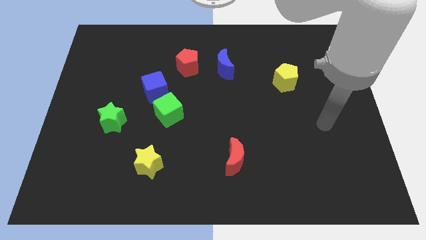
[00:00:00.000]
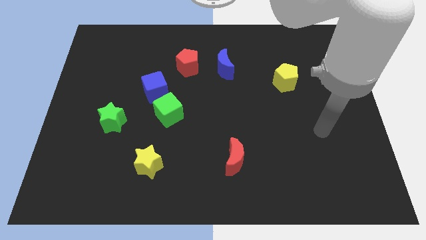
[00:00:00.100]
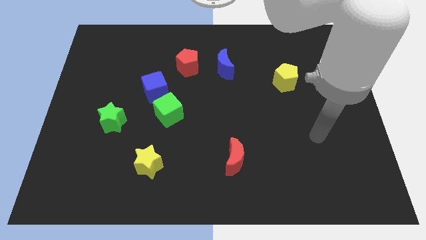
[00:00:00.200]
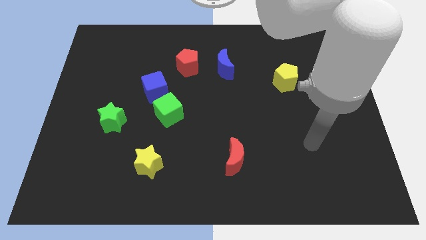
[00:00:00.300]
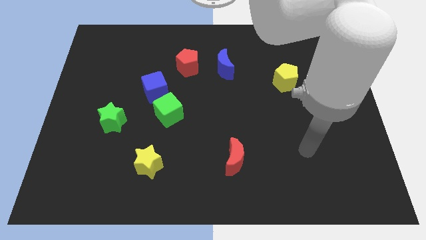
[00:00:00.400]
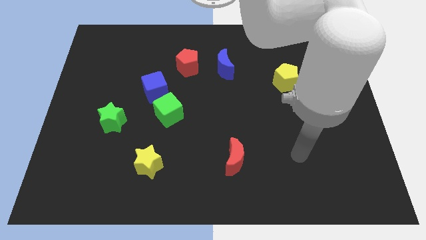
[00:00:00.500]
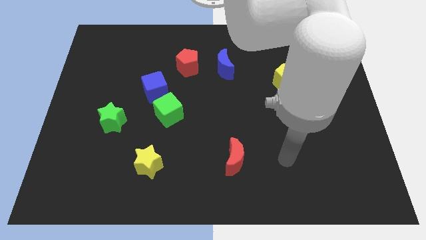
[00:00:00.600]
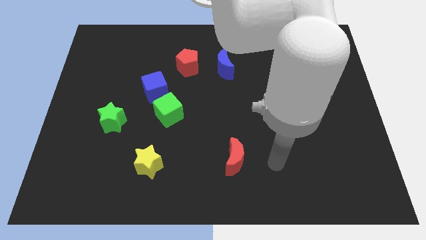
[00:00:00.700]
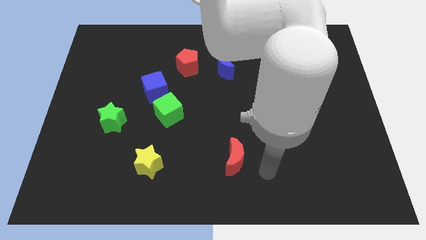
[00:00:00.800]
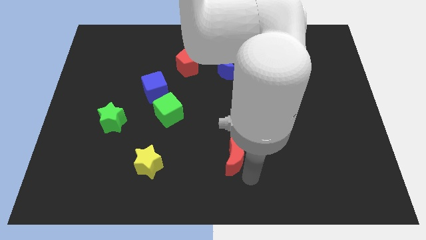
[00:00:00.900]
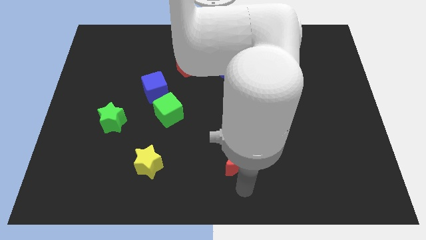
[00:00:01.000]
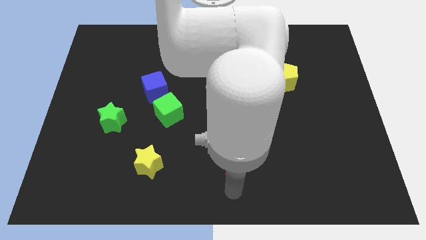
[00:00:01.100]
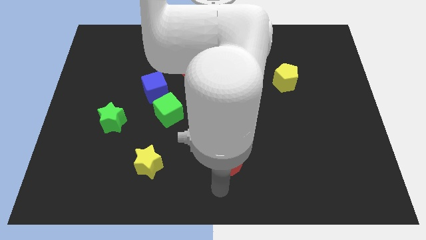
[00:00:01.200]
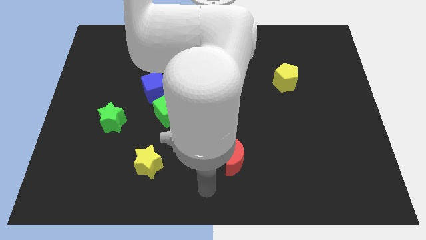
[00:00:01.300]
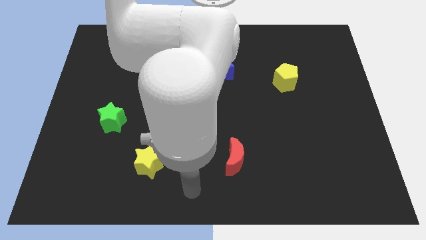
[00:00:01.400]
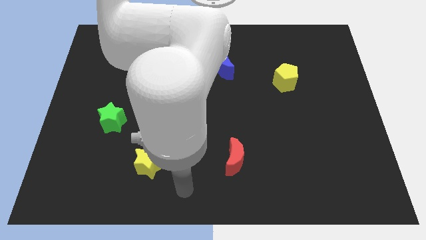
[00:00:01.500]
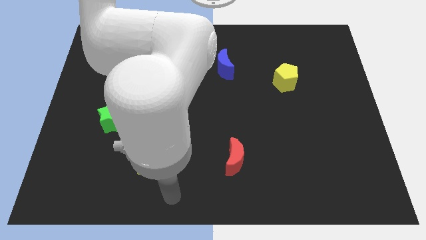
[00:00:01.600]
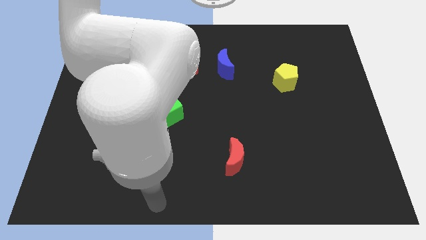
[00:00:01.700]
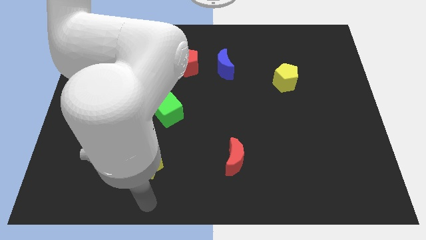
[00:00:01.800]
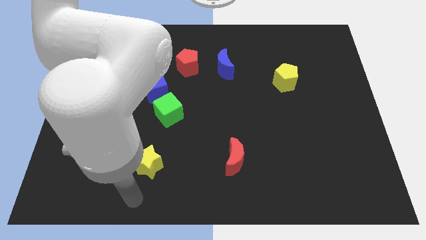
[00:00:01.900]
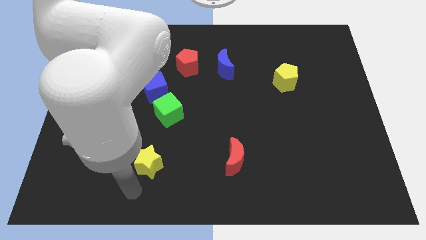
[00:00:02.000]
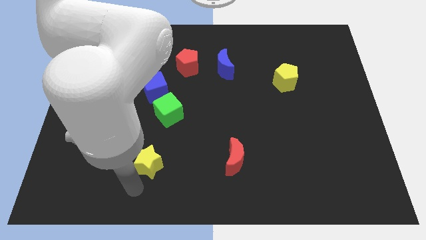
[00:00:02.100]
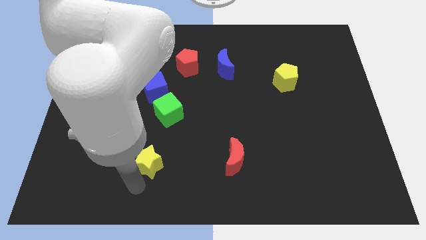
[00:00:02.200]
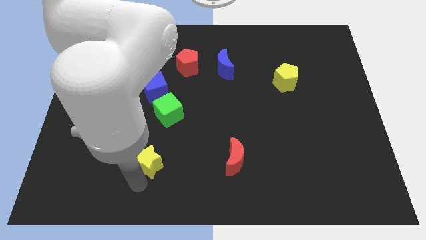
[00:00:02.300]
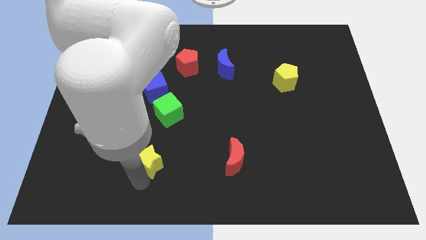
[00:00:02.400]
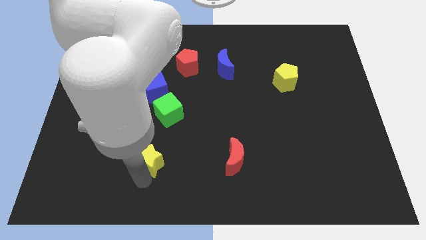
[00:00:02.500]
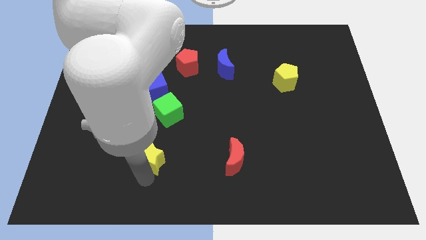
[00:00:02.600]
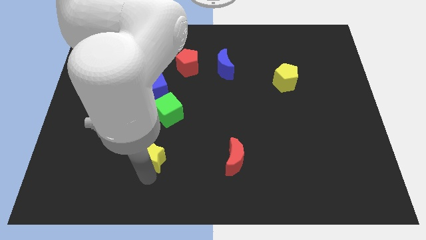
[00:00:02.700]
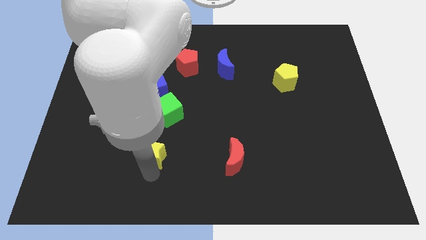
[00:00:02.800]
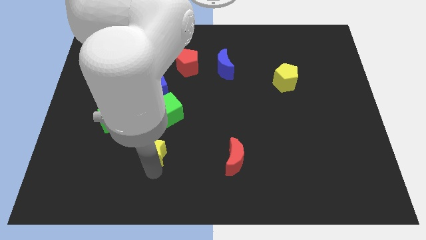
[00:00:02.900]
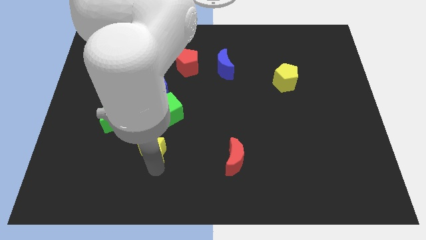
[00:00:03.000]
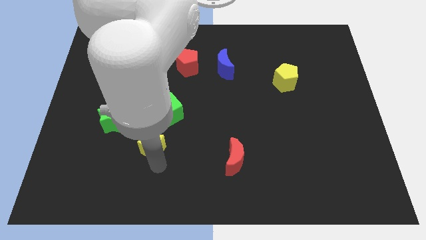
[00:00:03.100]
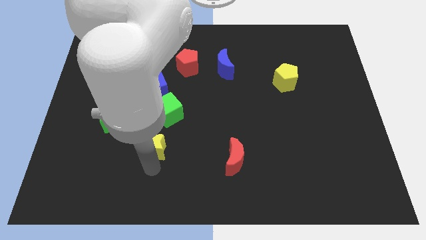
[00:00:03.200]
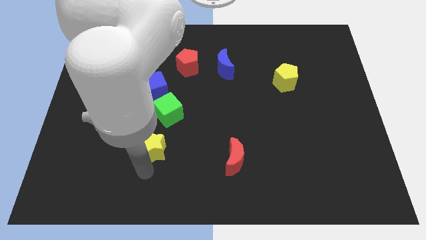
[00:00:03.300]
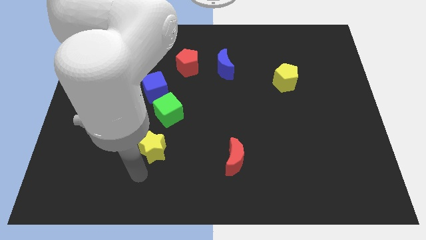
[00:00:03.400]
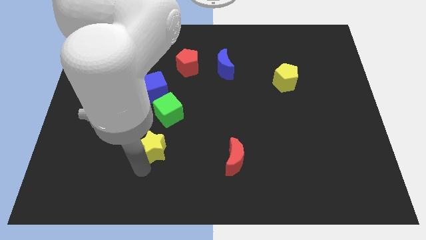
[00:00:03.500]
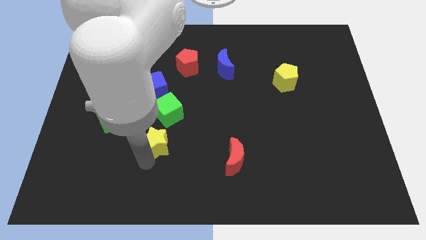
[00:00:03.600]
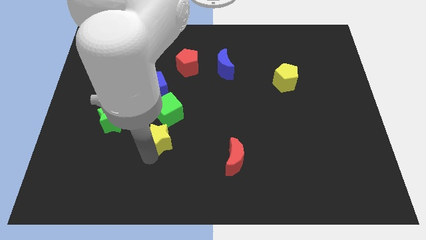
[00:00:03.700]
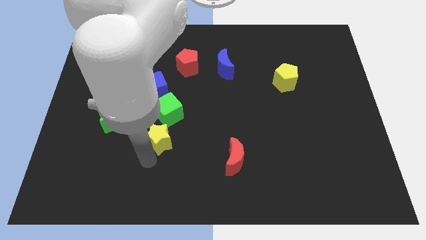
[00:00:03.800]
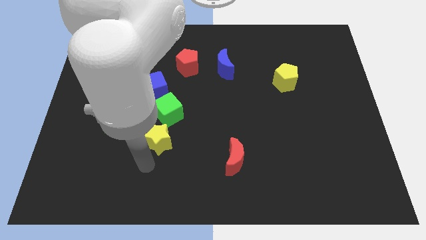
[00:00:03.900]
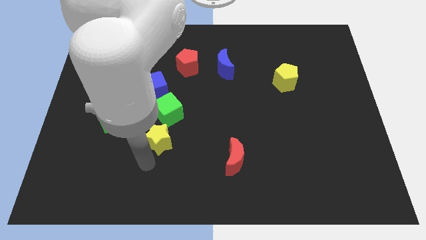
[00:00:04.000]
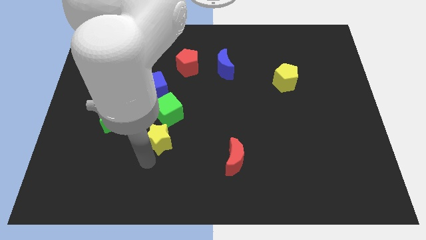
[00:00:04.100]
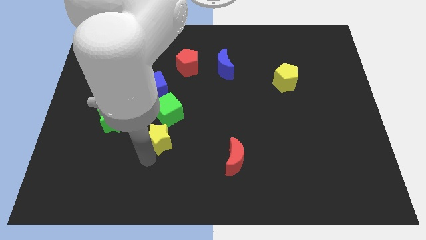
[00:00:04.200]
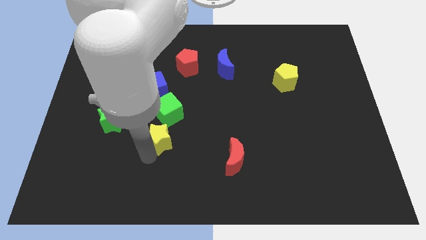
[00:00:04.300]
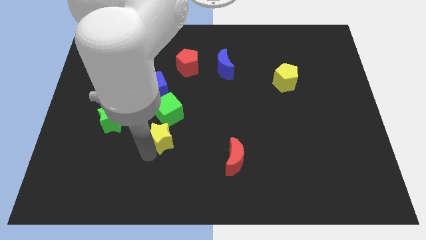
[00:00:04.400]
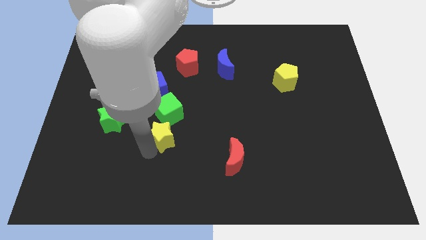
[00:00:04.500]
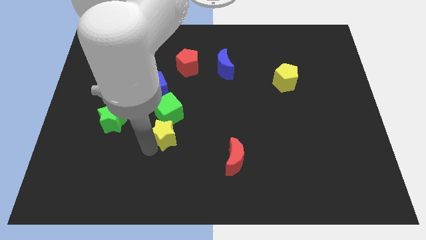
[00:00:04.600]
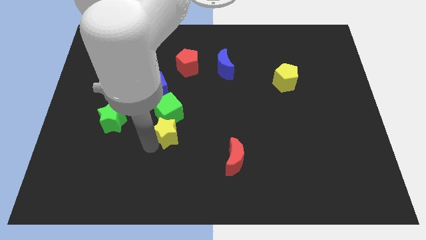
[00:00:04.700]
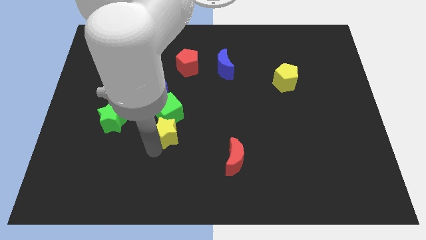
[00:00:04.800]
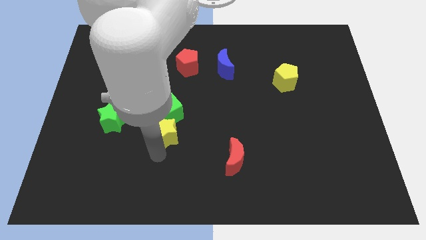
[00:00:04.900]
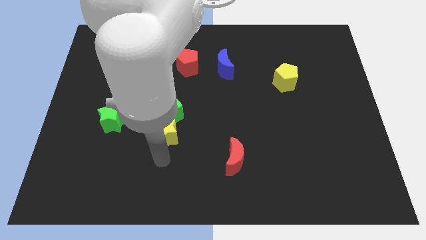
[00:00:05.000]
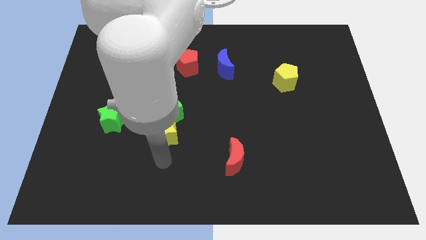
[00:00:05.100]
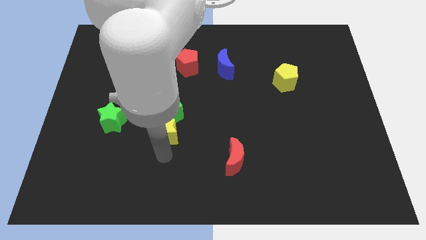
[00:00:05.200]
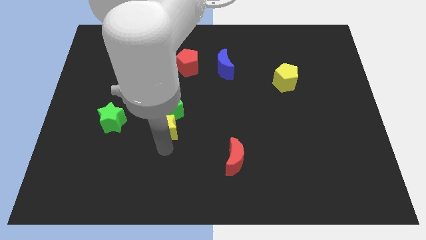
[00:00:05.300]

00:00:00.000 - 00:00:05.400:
move the yellow star next to the green cube
